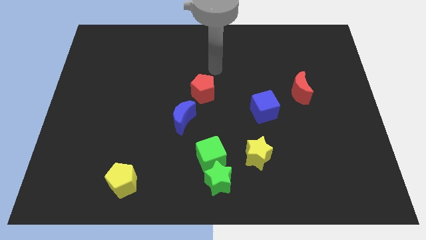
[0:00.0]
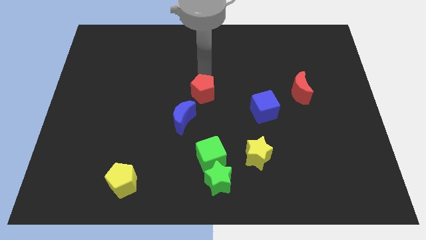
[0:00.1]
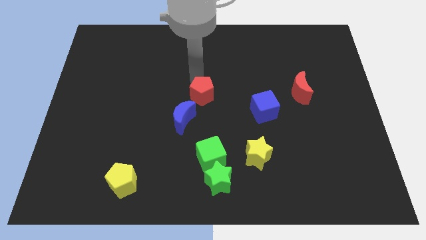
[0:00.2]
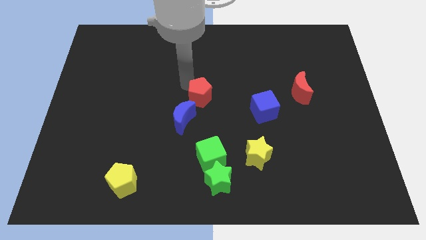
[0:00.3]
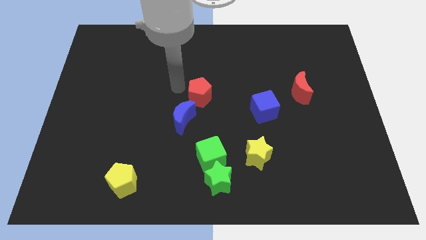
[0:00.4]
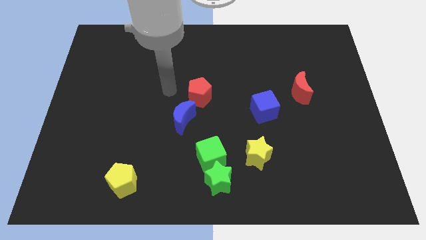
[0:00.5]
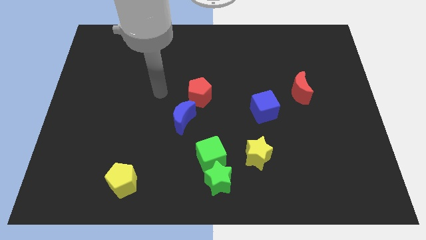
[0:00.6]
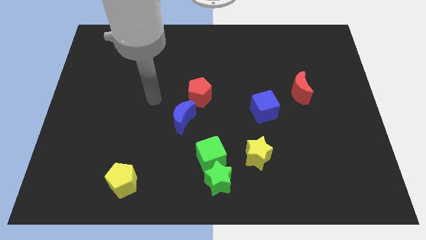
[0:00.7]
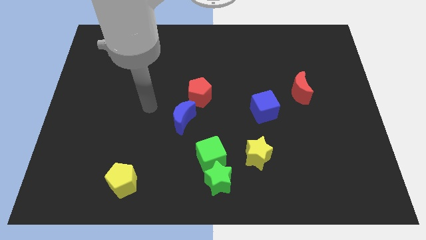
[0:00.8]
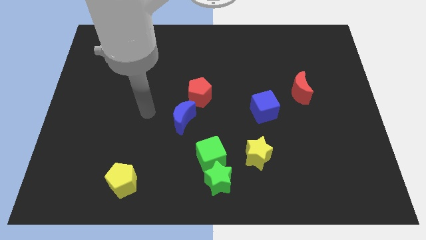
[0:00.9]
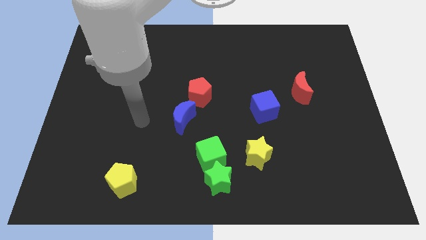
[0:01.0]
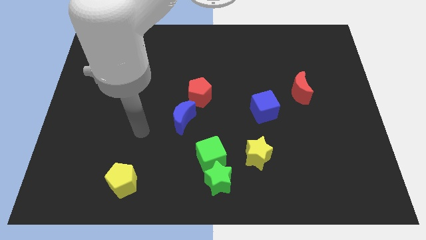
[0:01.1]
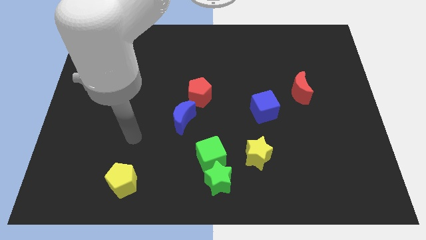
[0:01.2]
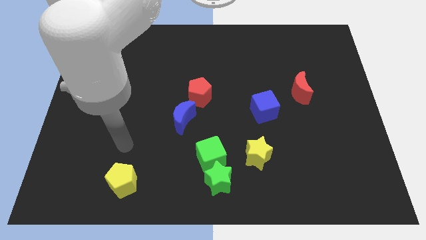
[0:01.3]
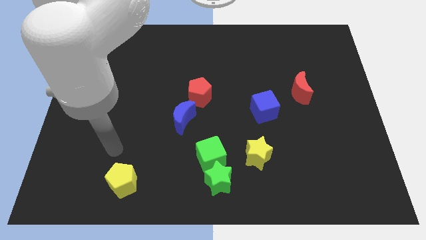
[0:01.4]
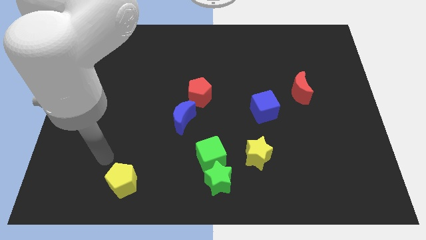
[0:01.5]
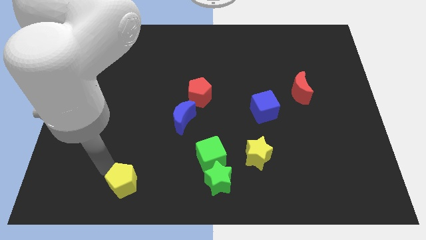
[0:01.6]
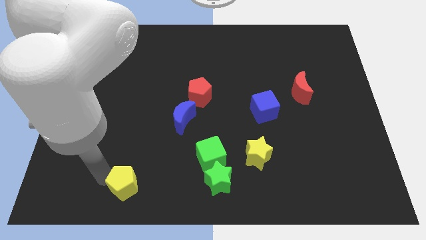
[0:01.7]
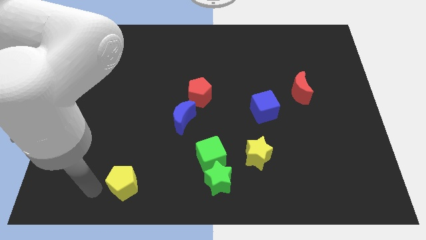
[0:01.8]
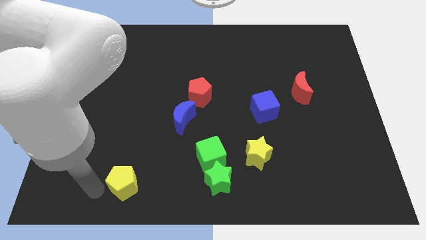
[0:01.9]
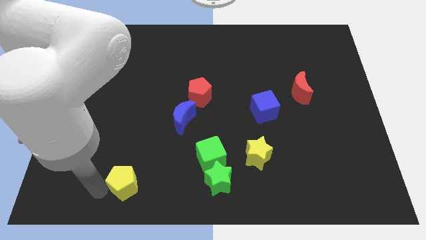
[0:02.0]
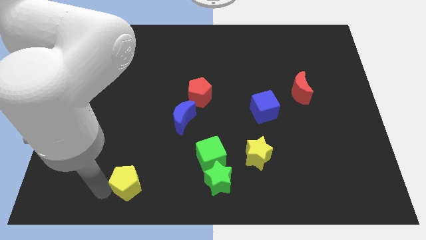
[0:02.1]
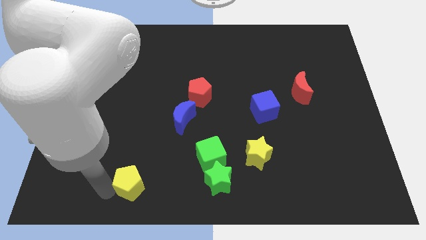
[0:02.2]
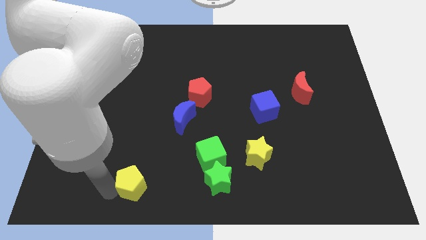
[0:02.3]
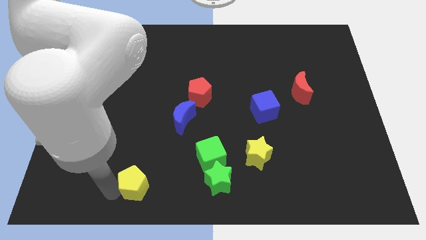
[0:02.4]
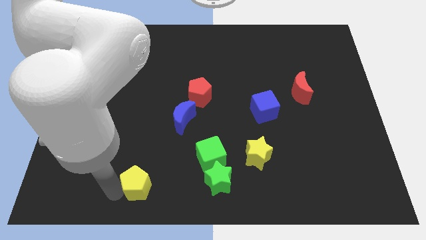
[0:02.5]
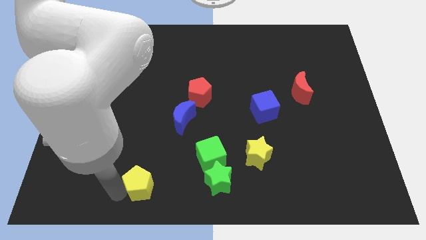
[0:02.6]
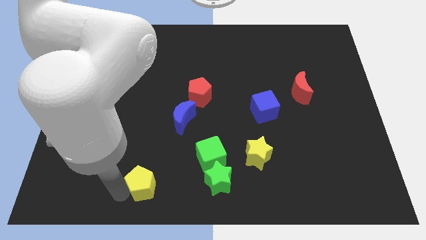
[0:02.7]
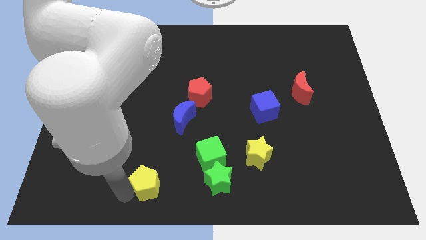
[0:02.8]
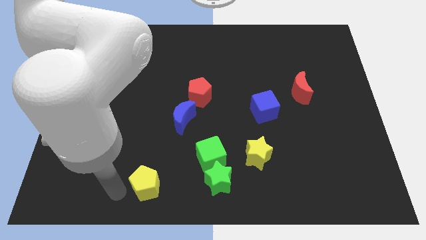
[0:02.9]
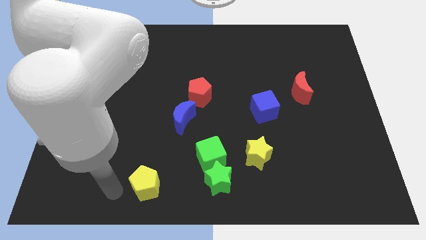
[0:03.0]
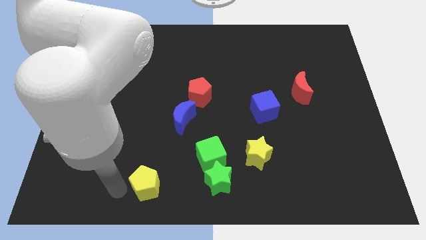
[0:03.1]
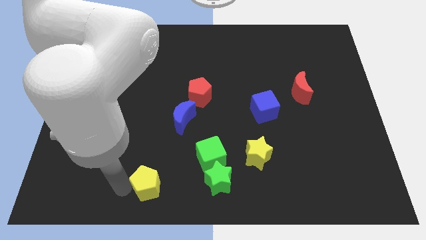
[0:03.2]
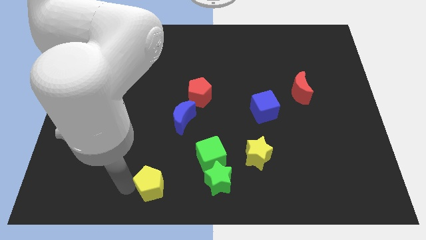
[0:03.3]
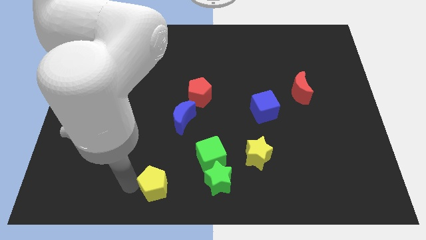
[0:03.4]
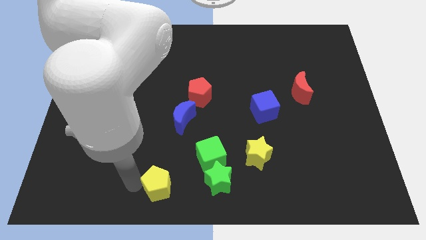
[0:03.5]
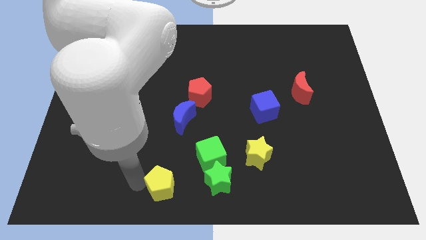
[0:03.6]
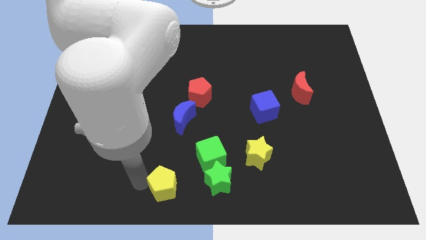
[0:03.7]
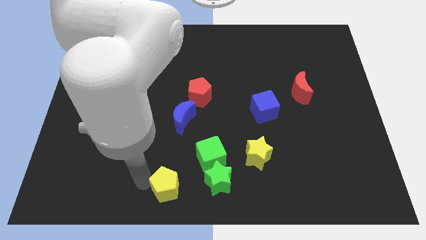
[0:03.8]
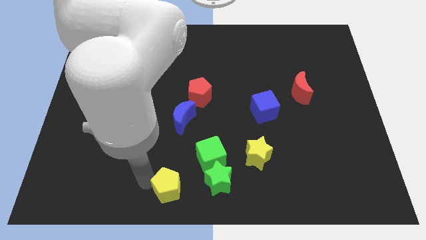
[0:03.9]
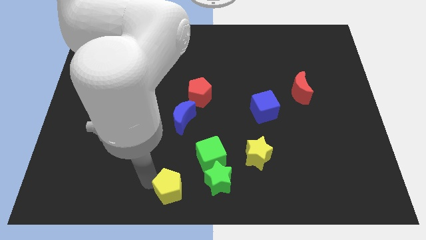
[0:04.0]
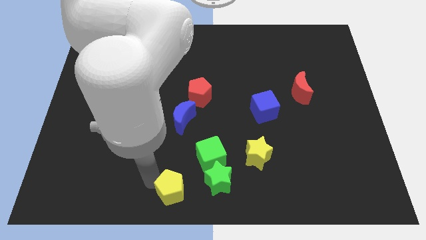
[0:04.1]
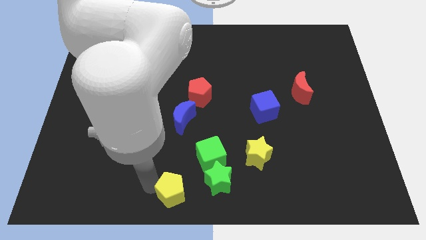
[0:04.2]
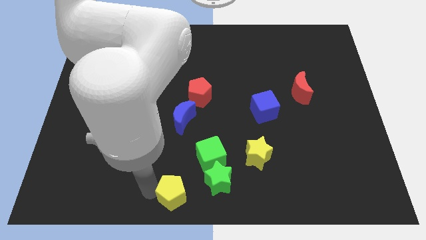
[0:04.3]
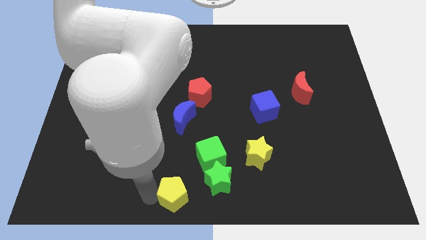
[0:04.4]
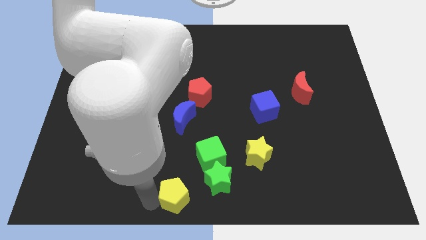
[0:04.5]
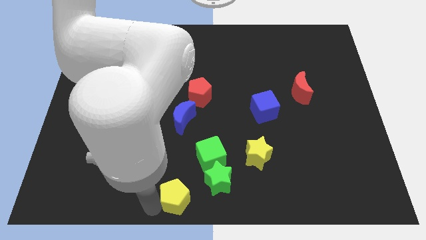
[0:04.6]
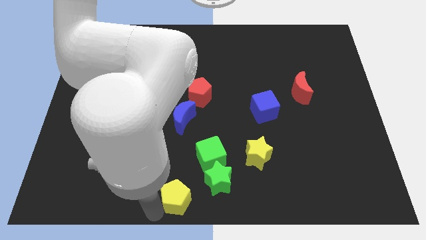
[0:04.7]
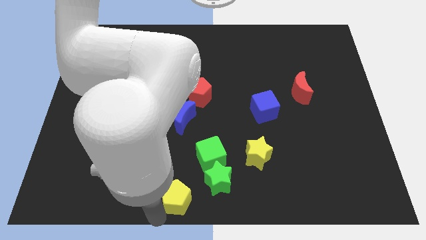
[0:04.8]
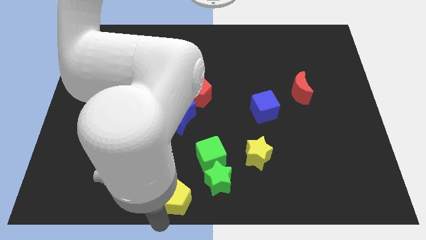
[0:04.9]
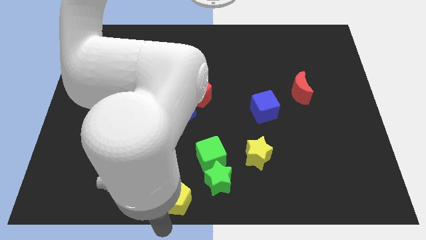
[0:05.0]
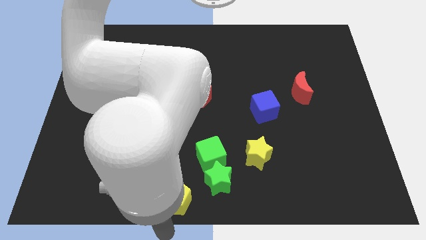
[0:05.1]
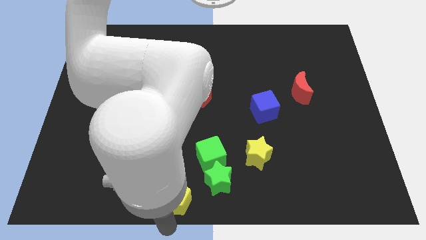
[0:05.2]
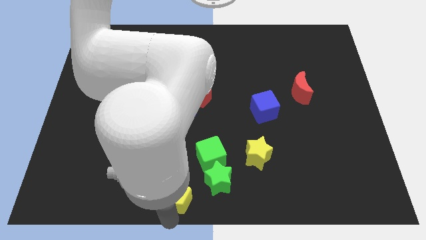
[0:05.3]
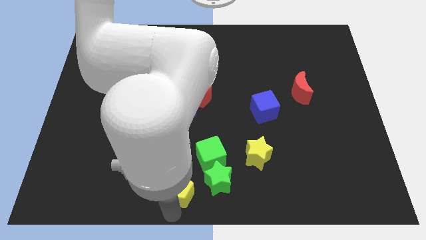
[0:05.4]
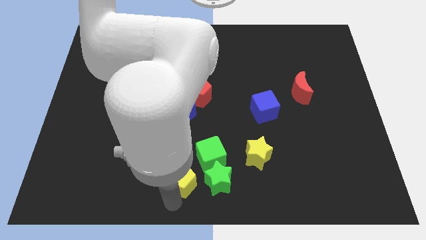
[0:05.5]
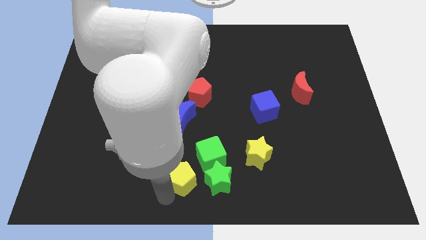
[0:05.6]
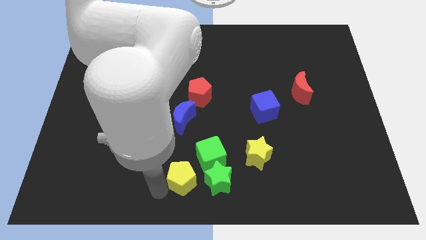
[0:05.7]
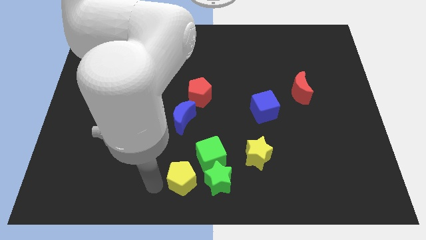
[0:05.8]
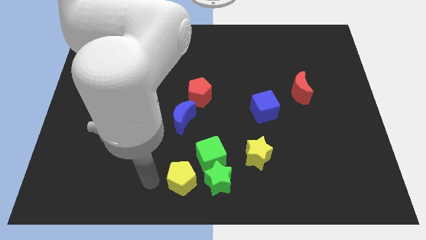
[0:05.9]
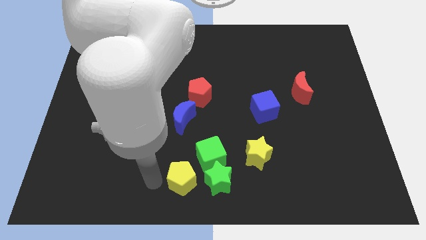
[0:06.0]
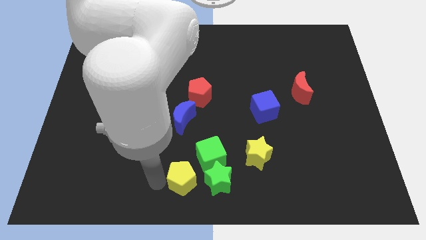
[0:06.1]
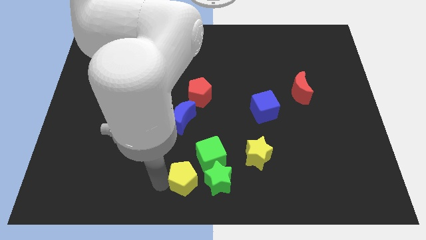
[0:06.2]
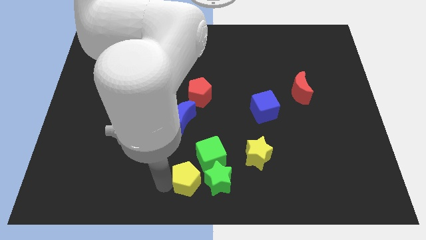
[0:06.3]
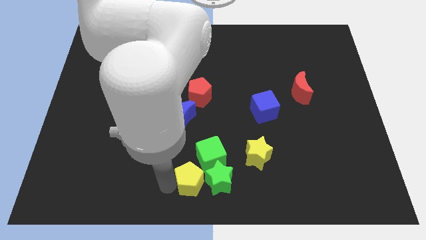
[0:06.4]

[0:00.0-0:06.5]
push the yellow pentagon close to the green star

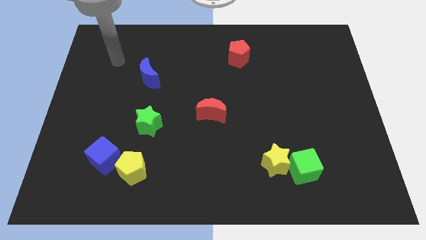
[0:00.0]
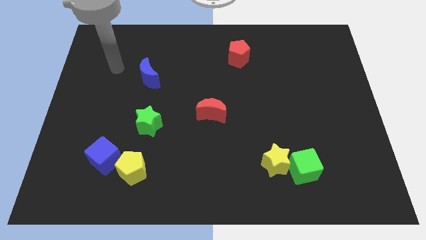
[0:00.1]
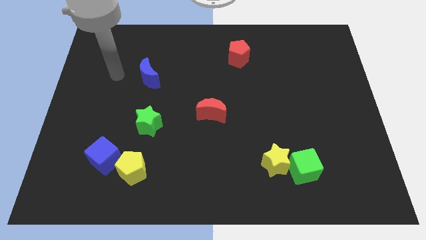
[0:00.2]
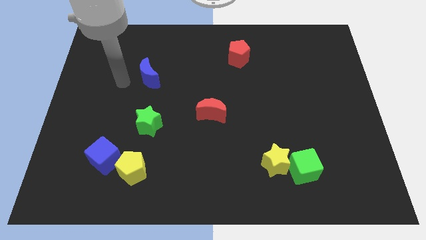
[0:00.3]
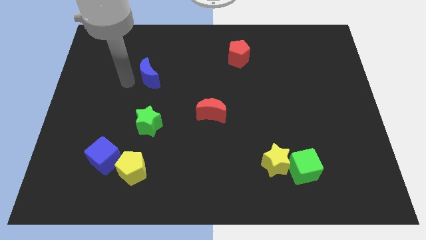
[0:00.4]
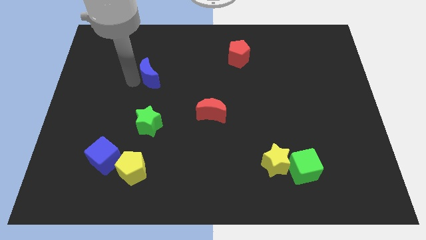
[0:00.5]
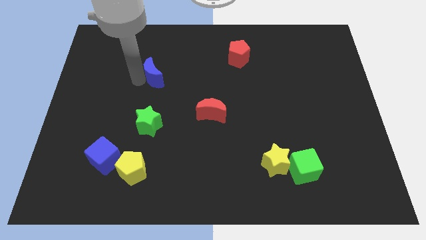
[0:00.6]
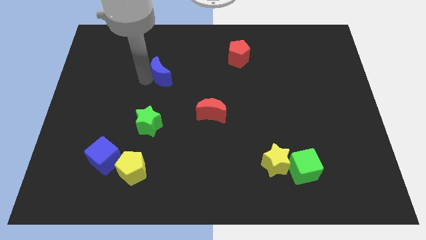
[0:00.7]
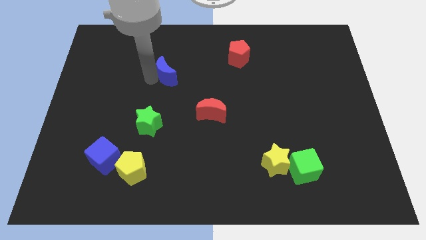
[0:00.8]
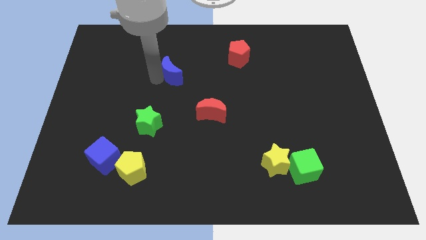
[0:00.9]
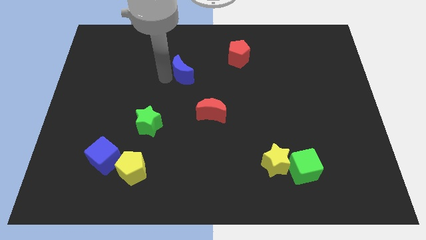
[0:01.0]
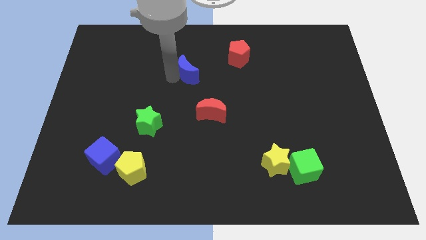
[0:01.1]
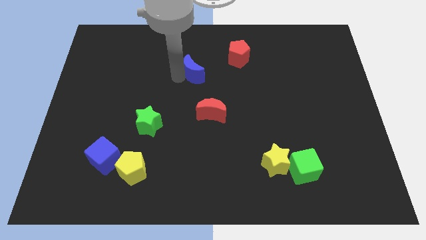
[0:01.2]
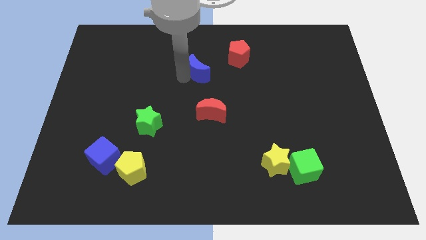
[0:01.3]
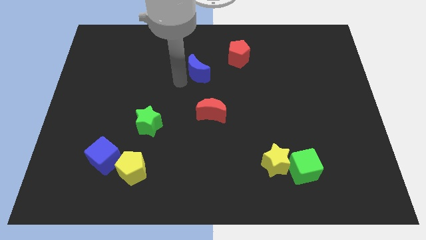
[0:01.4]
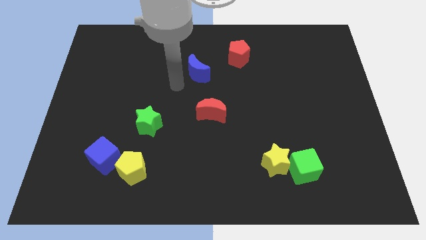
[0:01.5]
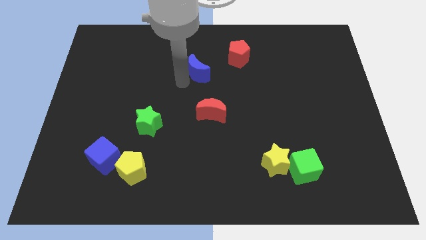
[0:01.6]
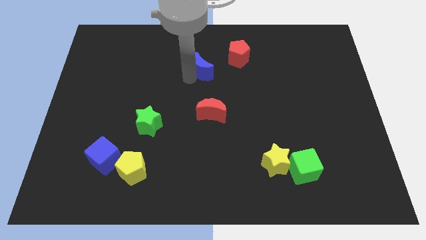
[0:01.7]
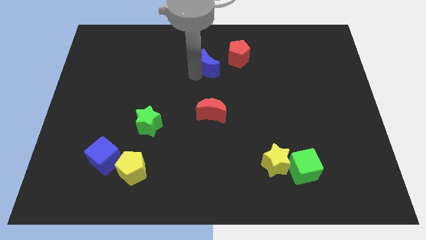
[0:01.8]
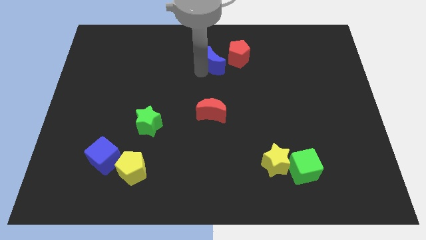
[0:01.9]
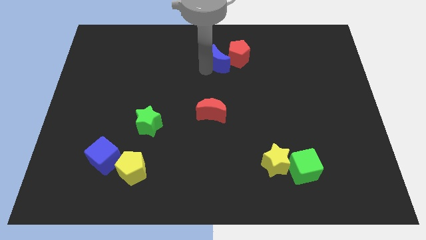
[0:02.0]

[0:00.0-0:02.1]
move the blue moon towards the red pentagon
